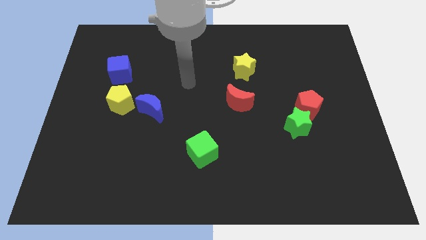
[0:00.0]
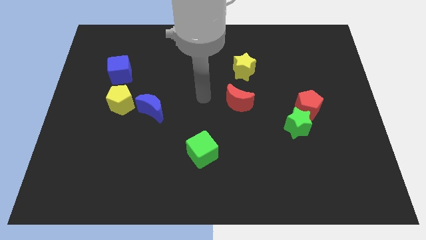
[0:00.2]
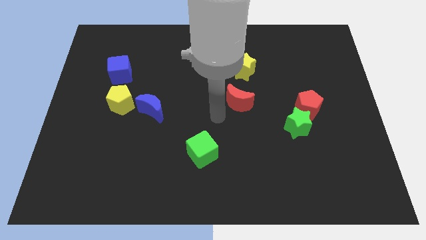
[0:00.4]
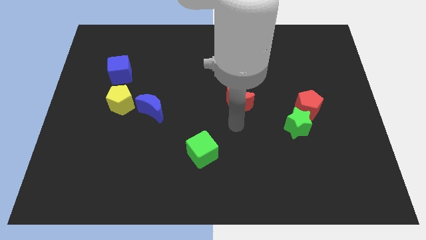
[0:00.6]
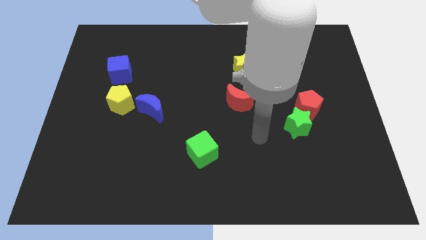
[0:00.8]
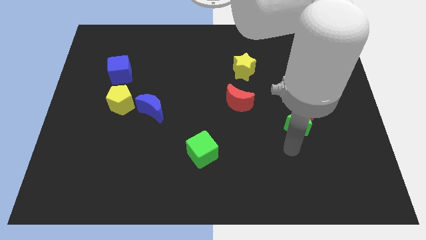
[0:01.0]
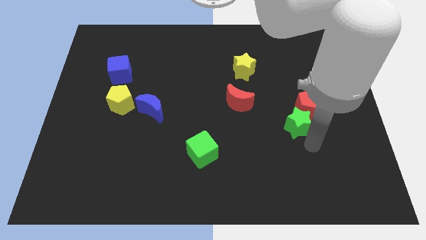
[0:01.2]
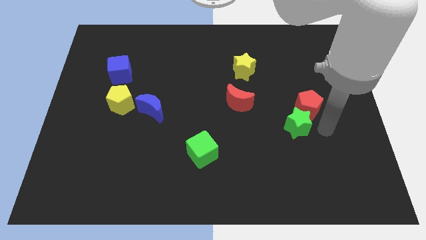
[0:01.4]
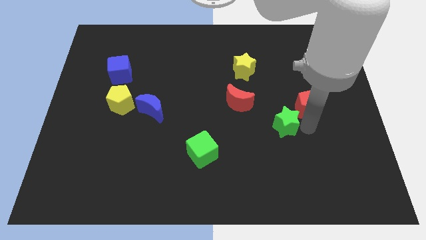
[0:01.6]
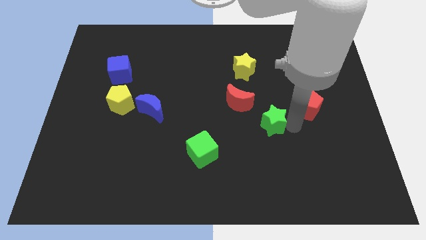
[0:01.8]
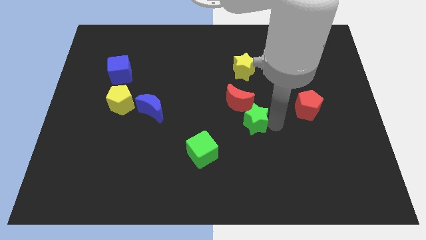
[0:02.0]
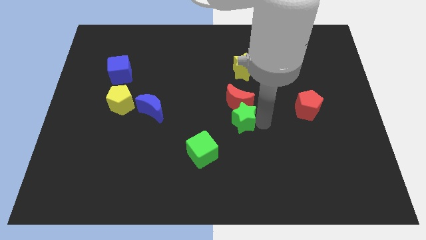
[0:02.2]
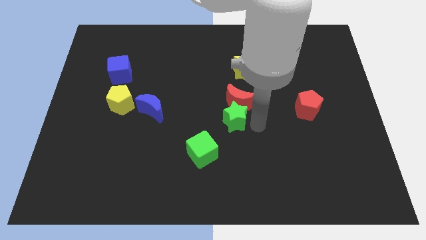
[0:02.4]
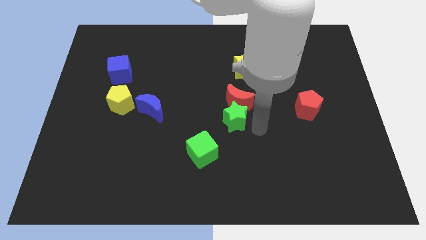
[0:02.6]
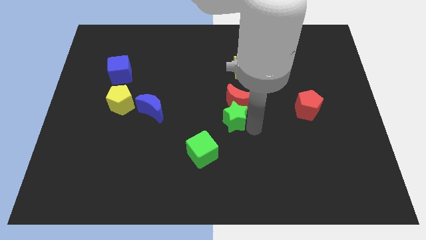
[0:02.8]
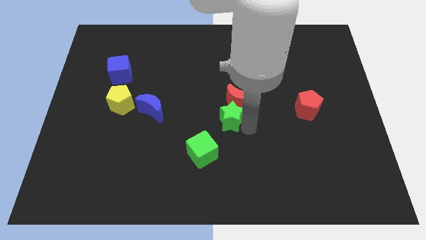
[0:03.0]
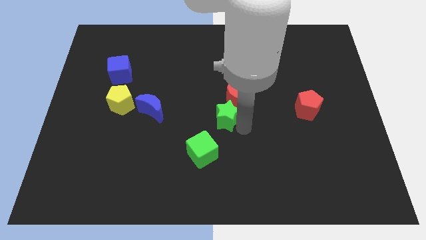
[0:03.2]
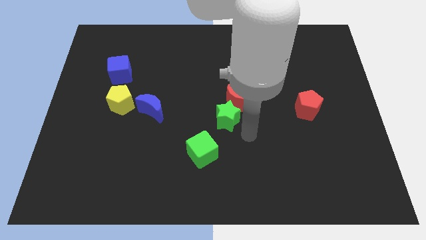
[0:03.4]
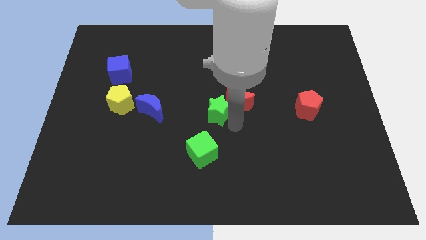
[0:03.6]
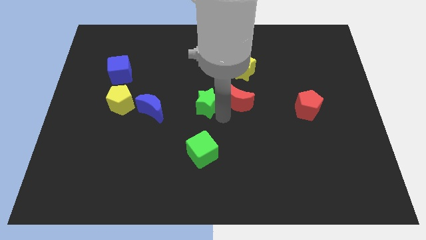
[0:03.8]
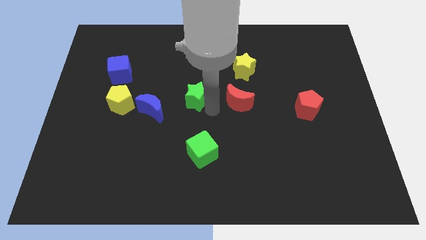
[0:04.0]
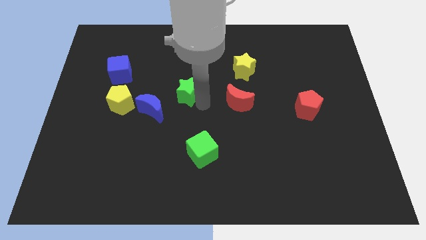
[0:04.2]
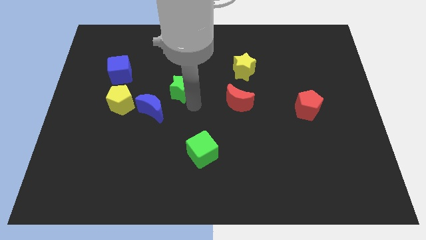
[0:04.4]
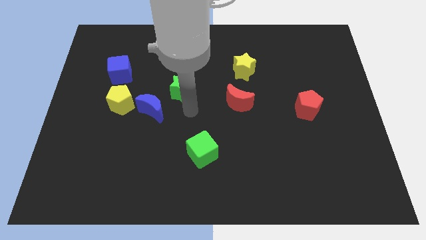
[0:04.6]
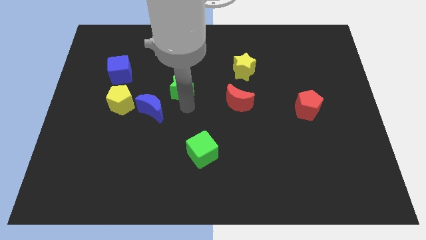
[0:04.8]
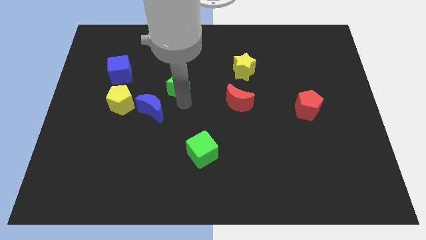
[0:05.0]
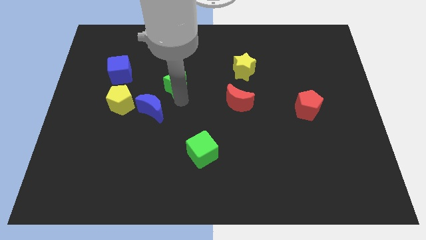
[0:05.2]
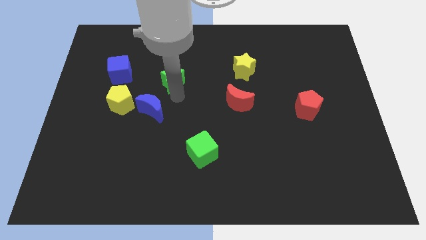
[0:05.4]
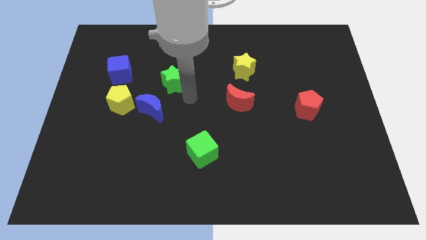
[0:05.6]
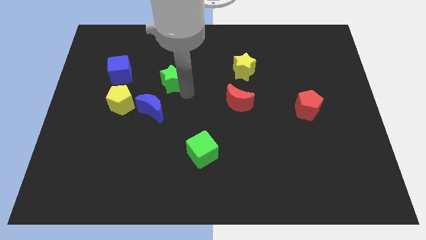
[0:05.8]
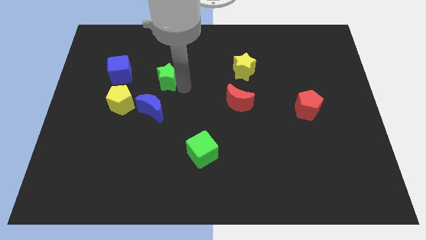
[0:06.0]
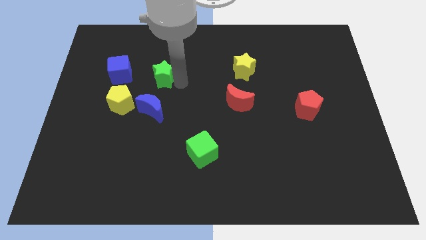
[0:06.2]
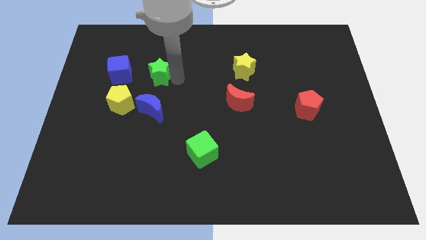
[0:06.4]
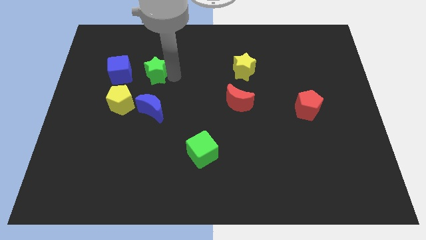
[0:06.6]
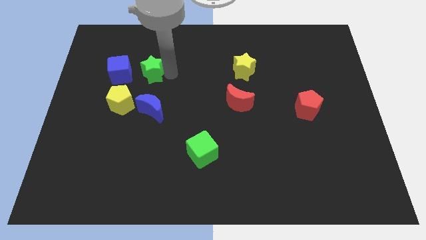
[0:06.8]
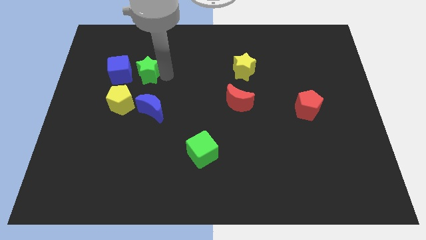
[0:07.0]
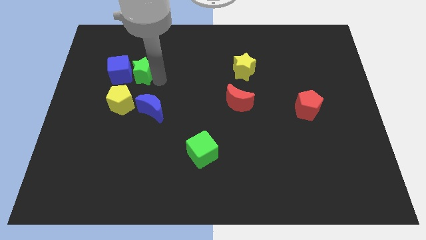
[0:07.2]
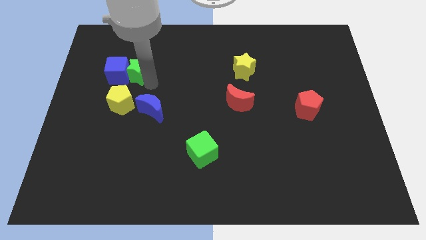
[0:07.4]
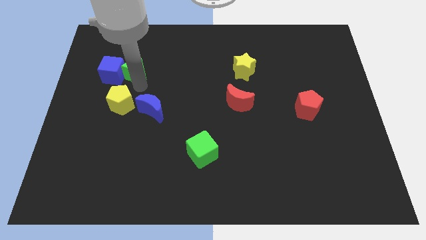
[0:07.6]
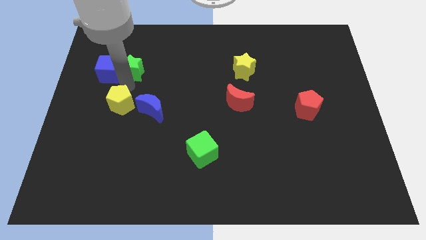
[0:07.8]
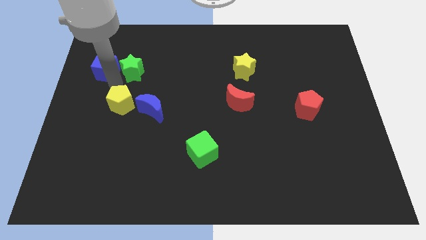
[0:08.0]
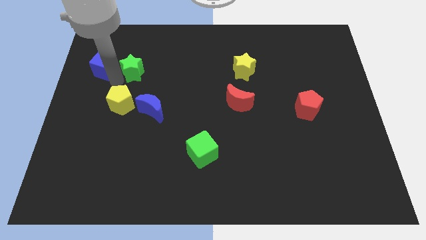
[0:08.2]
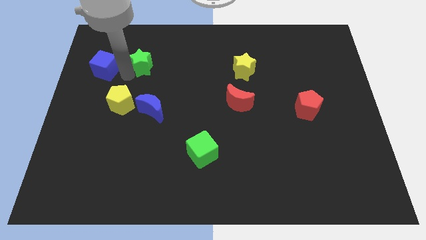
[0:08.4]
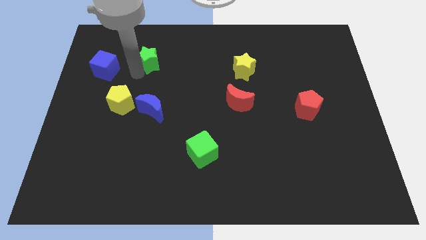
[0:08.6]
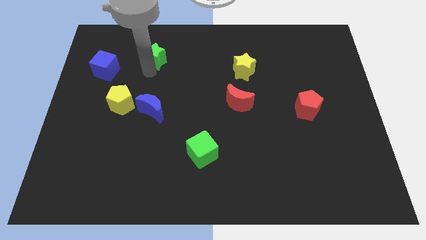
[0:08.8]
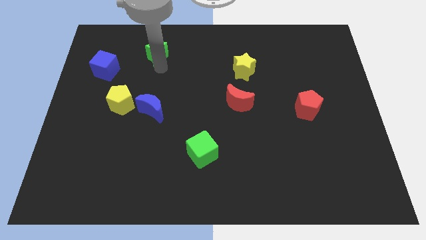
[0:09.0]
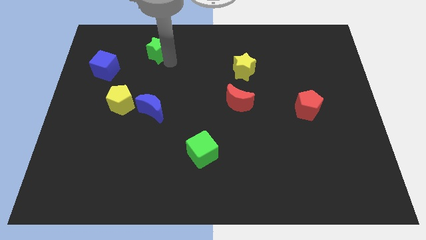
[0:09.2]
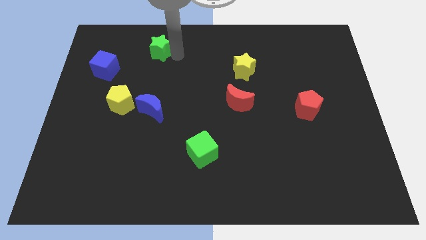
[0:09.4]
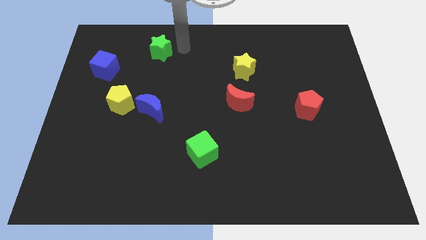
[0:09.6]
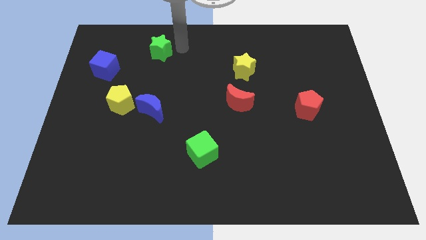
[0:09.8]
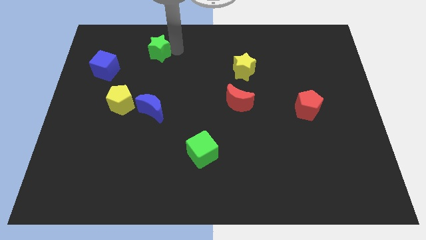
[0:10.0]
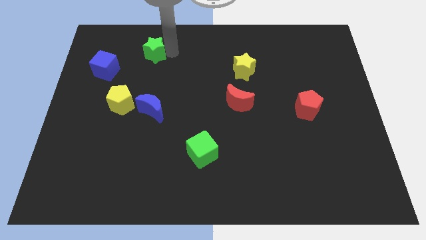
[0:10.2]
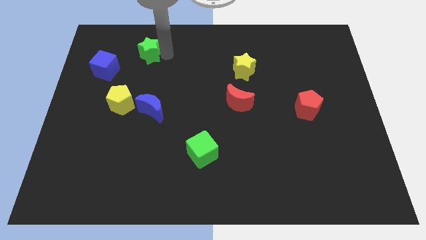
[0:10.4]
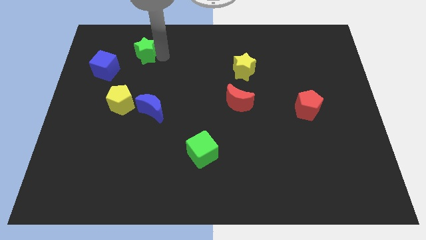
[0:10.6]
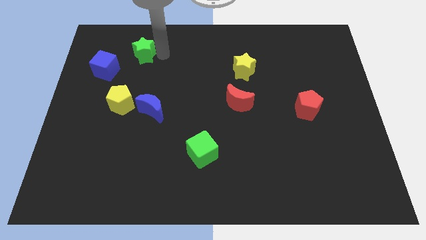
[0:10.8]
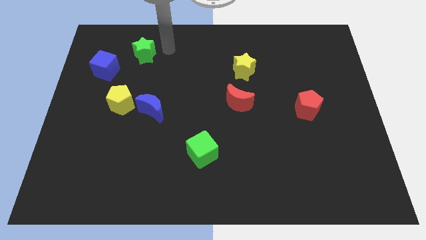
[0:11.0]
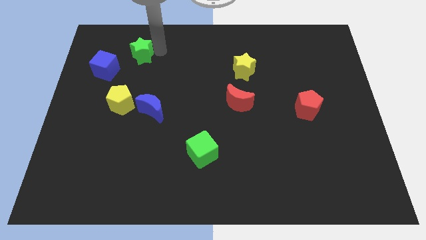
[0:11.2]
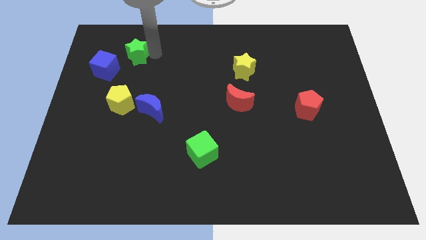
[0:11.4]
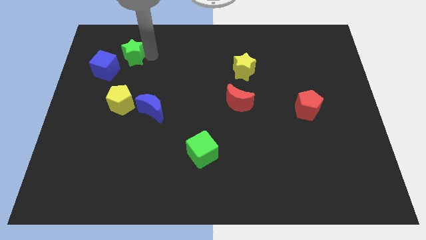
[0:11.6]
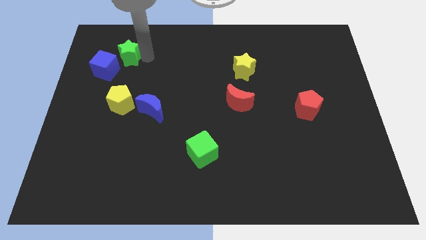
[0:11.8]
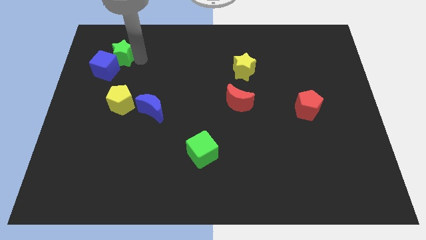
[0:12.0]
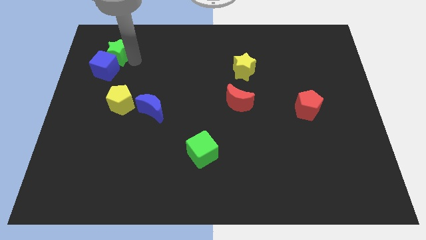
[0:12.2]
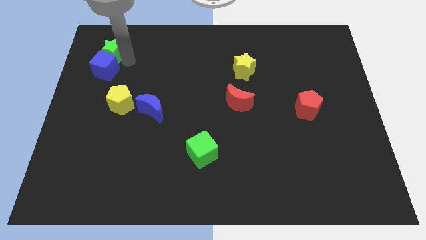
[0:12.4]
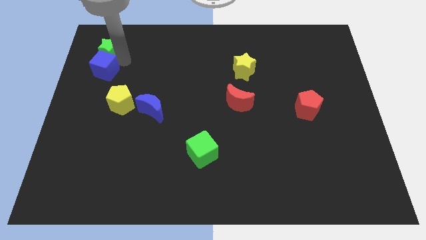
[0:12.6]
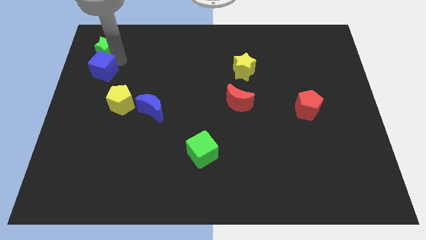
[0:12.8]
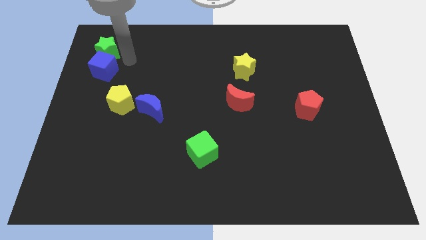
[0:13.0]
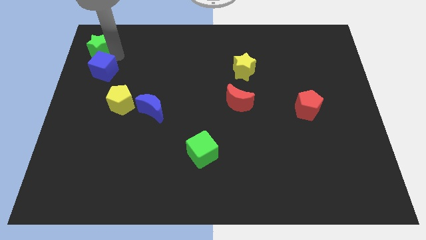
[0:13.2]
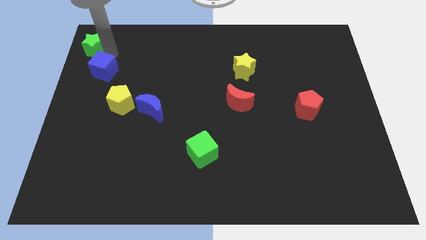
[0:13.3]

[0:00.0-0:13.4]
put the green star to the top left of the board
